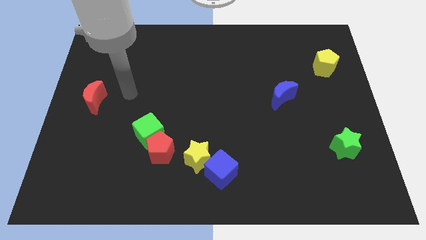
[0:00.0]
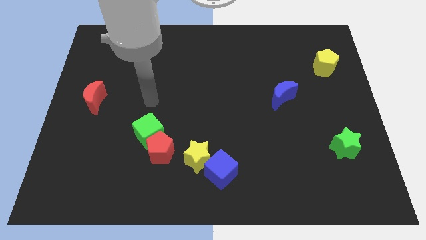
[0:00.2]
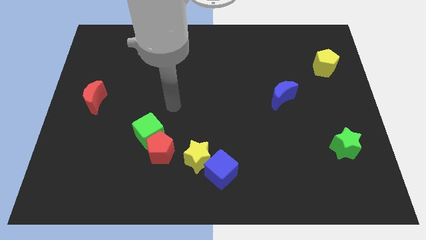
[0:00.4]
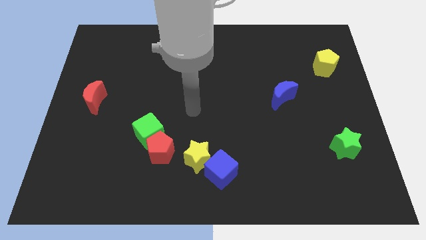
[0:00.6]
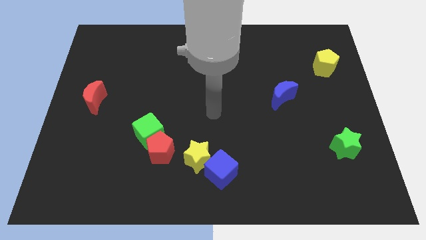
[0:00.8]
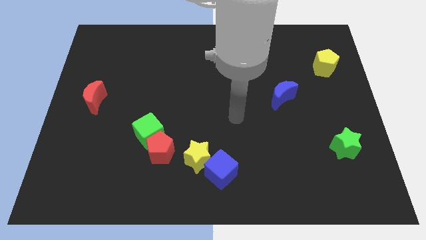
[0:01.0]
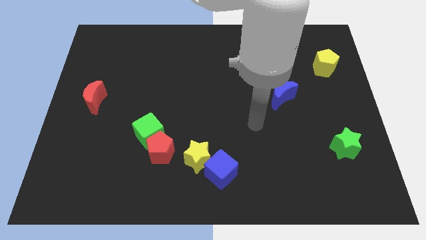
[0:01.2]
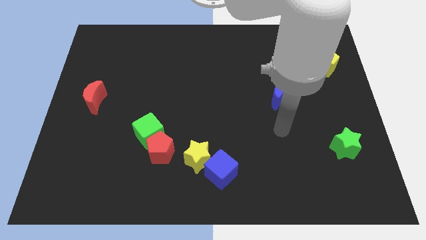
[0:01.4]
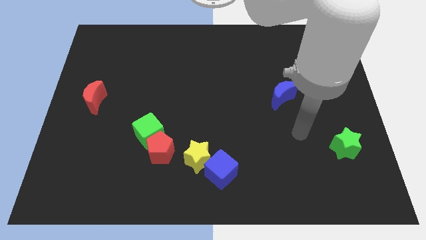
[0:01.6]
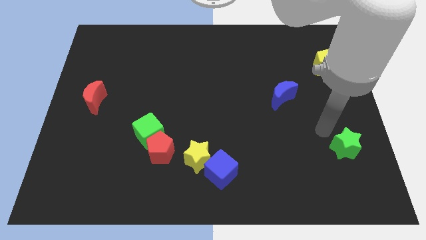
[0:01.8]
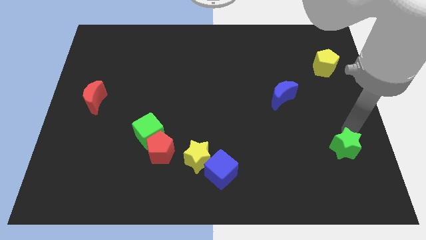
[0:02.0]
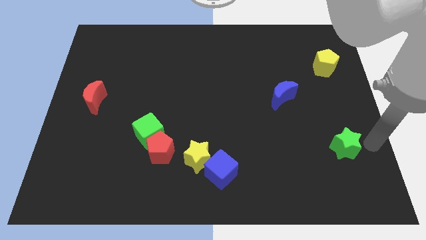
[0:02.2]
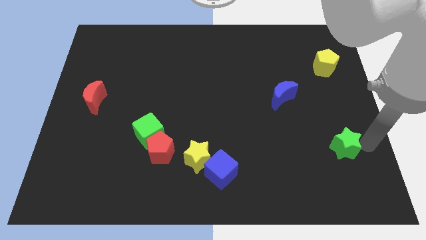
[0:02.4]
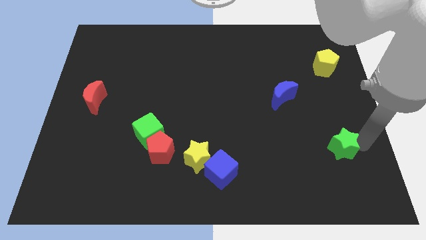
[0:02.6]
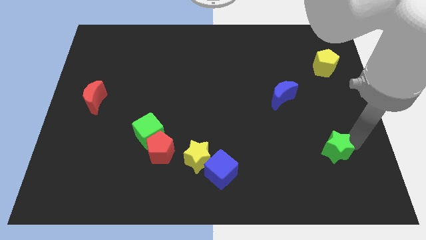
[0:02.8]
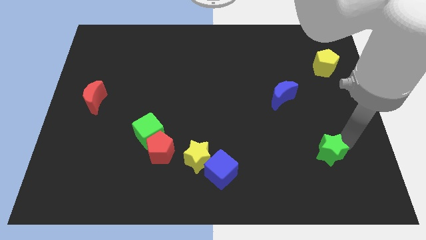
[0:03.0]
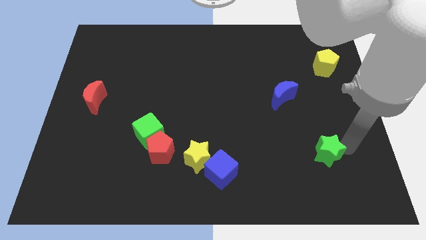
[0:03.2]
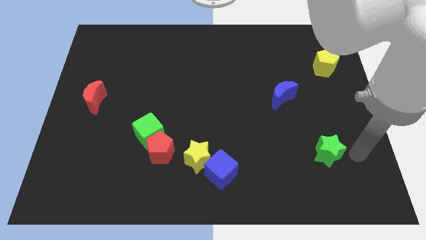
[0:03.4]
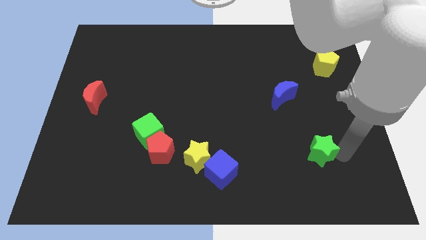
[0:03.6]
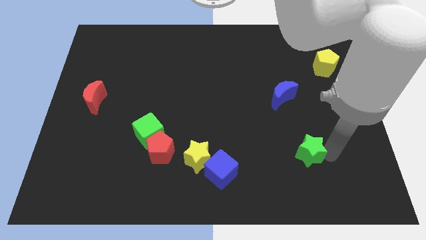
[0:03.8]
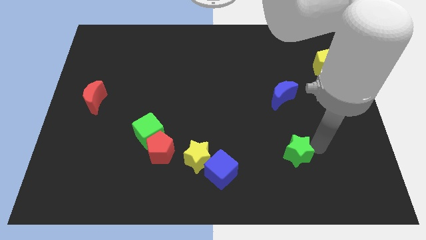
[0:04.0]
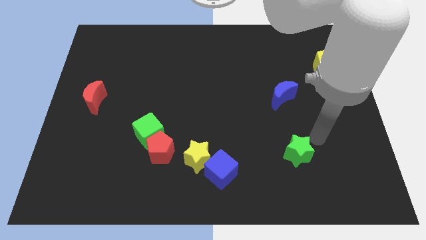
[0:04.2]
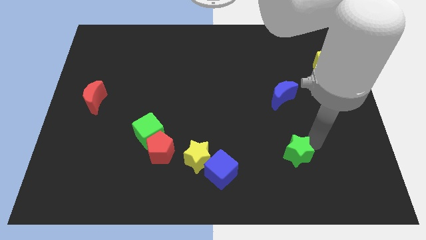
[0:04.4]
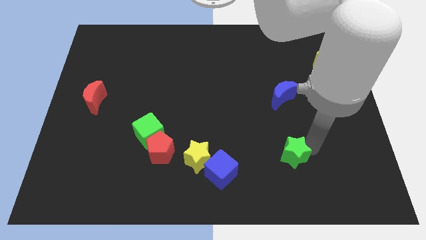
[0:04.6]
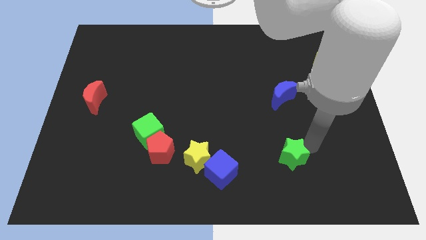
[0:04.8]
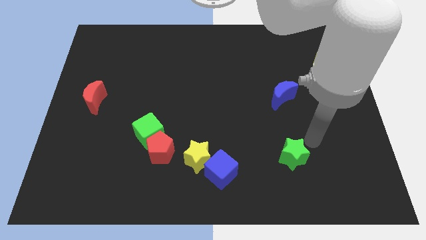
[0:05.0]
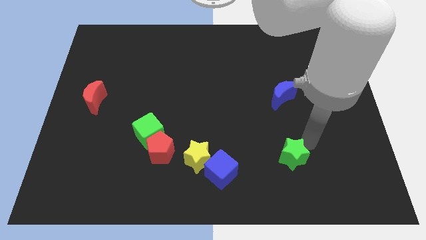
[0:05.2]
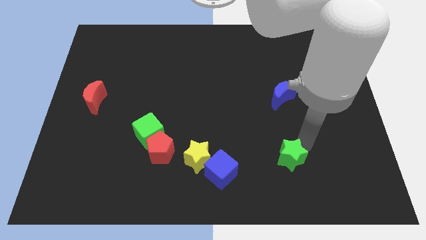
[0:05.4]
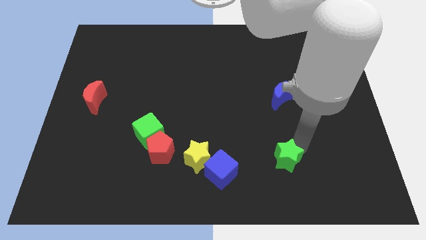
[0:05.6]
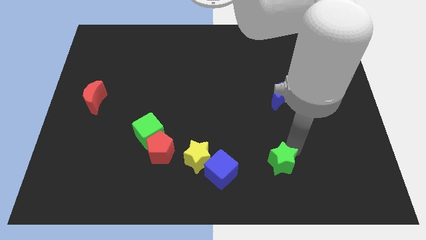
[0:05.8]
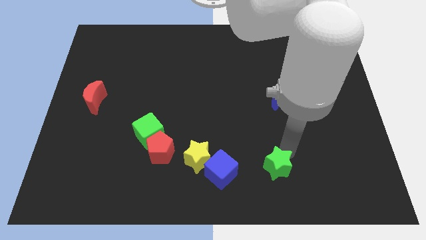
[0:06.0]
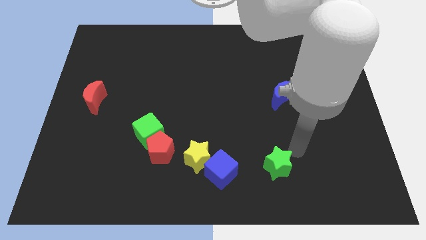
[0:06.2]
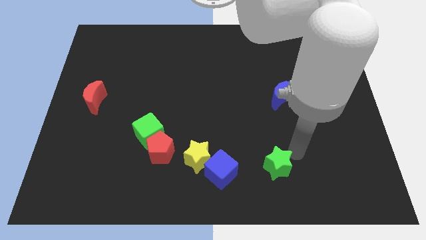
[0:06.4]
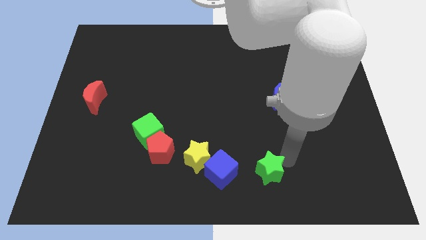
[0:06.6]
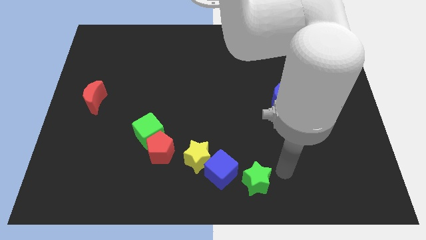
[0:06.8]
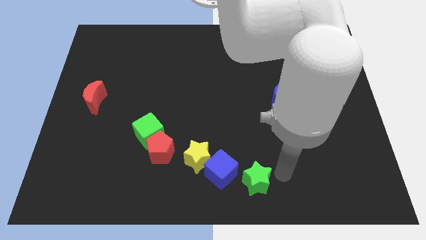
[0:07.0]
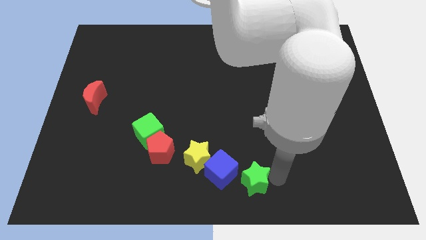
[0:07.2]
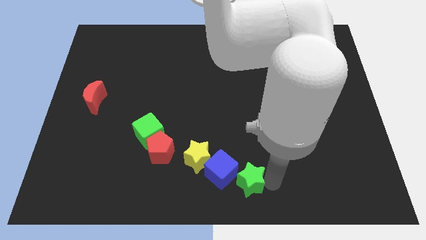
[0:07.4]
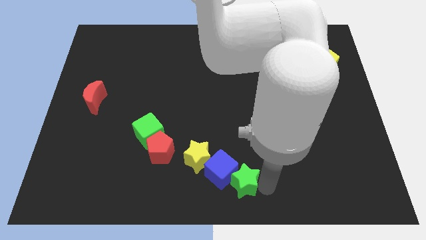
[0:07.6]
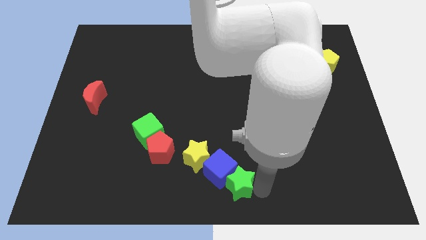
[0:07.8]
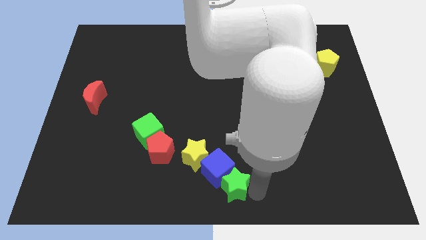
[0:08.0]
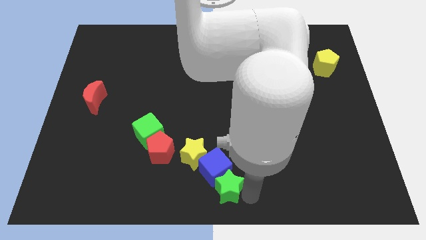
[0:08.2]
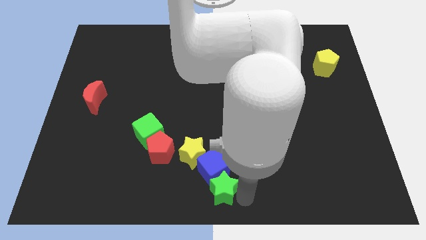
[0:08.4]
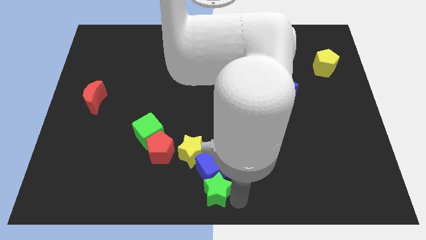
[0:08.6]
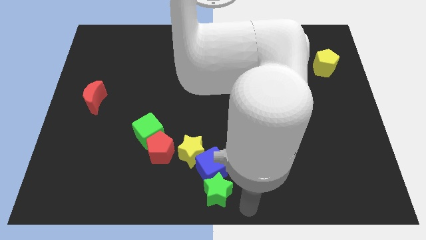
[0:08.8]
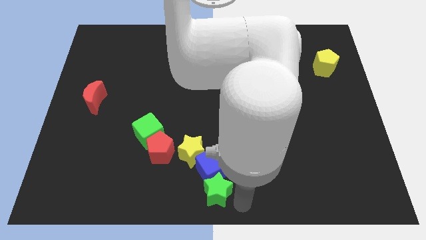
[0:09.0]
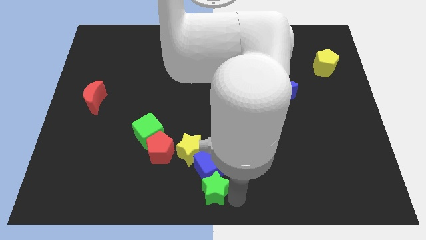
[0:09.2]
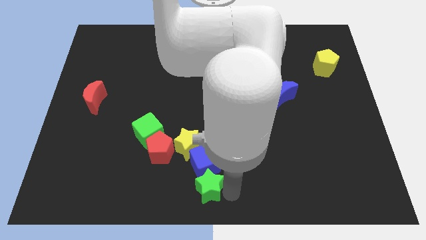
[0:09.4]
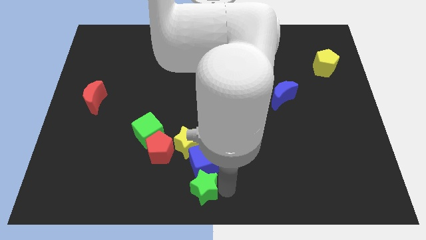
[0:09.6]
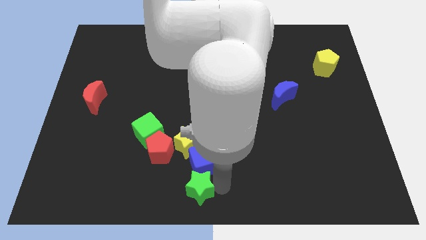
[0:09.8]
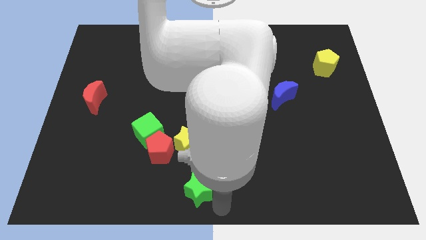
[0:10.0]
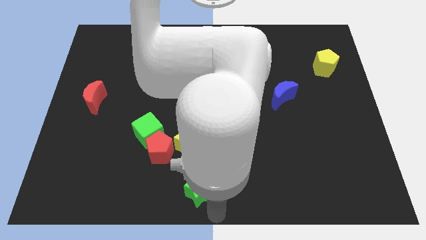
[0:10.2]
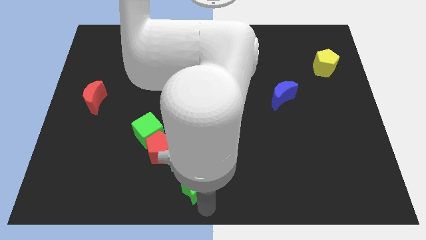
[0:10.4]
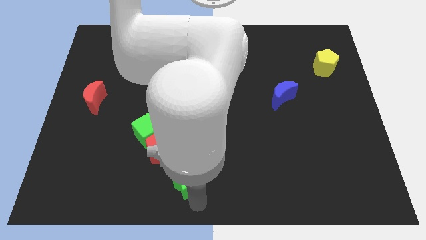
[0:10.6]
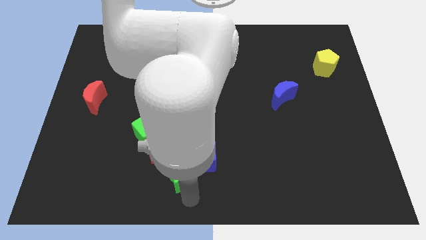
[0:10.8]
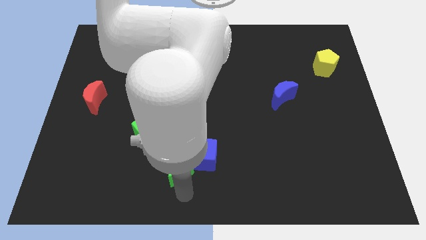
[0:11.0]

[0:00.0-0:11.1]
push the green star to the bottom right of the green cube
